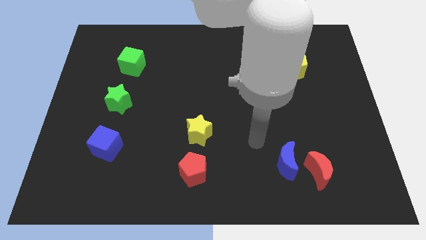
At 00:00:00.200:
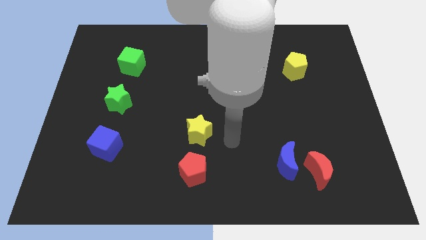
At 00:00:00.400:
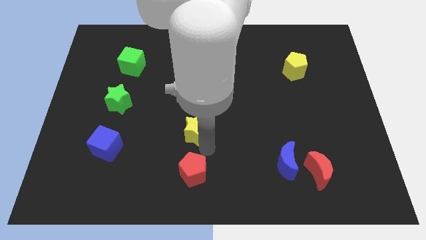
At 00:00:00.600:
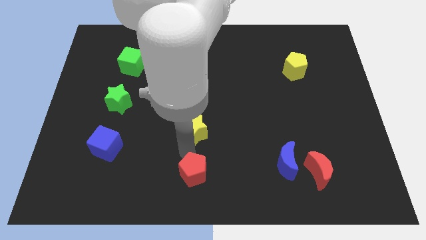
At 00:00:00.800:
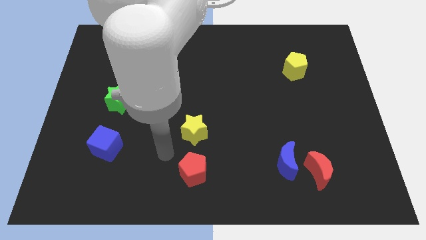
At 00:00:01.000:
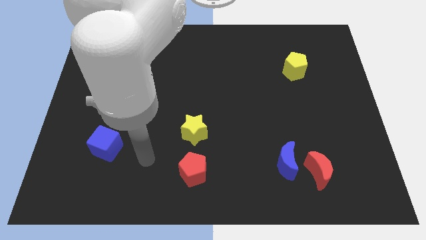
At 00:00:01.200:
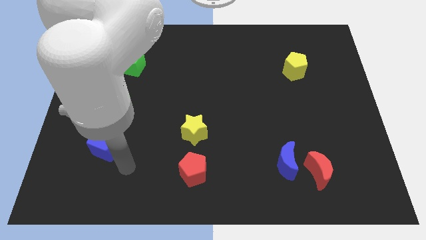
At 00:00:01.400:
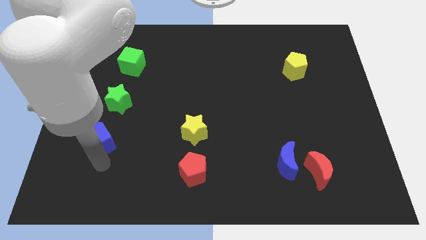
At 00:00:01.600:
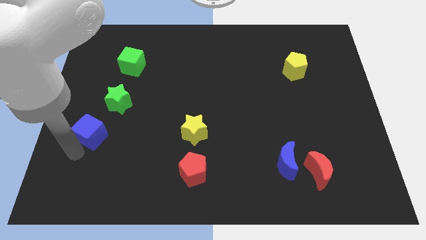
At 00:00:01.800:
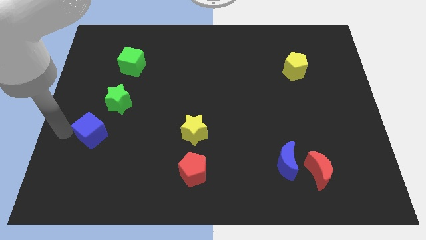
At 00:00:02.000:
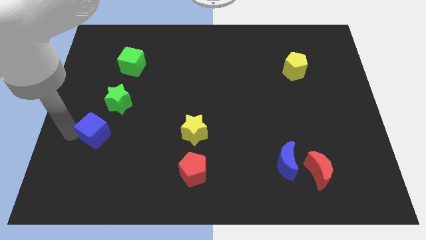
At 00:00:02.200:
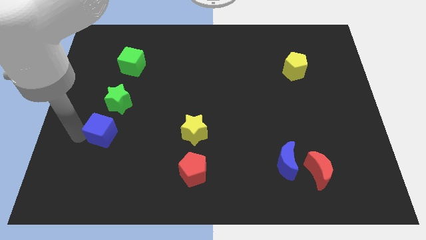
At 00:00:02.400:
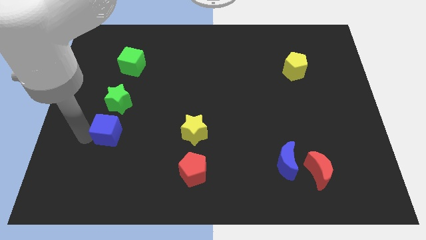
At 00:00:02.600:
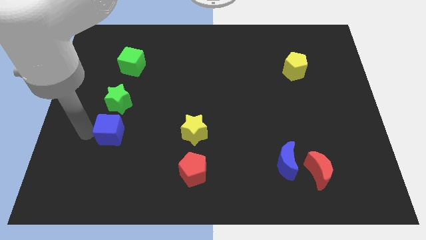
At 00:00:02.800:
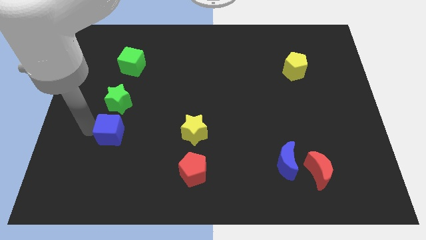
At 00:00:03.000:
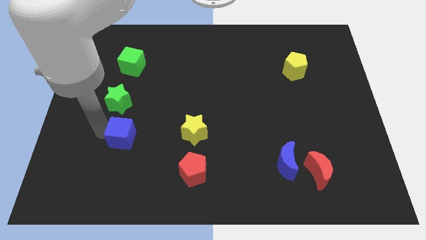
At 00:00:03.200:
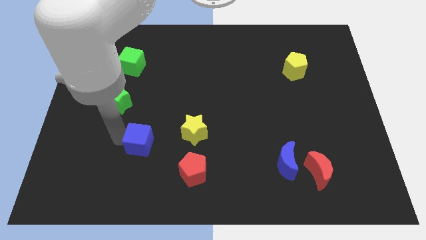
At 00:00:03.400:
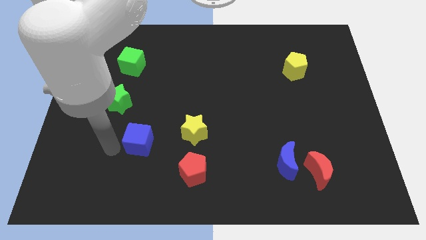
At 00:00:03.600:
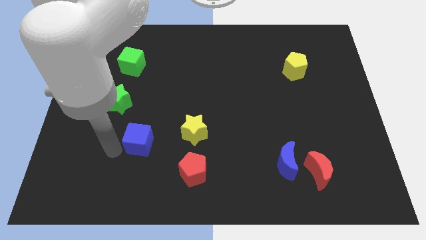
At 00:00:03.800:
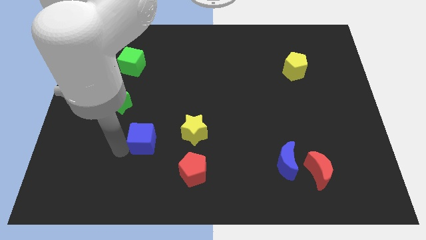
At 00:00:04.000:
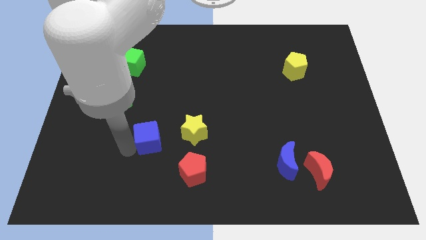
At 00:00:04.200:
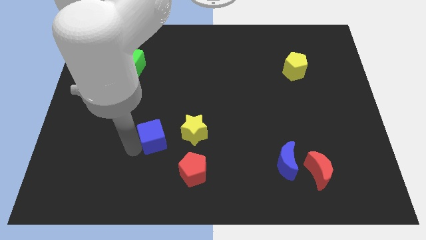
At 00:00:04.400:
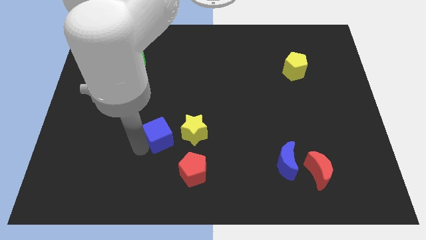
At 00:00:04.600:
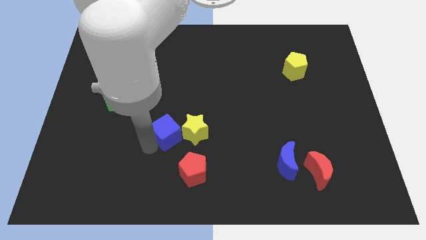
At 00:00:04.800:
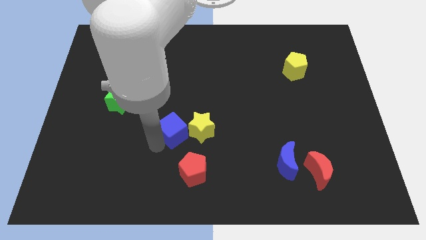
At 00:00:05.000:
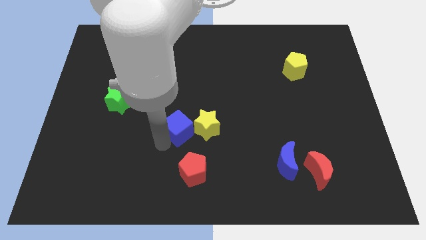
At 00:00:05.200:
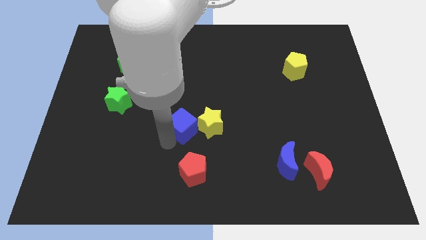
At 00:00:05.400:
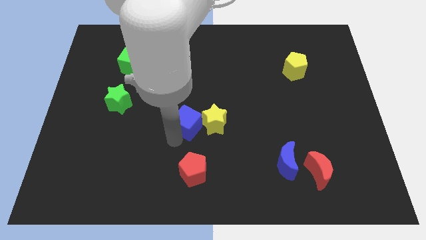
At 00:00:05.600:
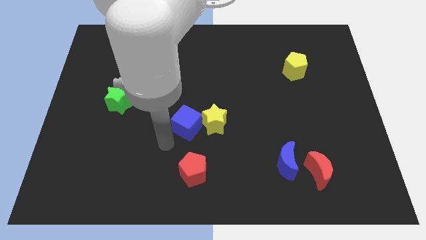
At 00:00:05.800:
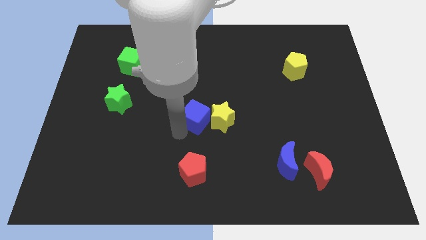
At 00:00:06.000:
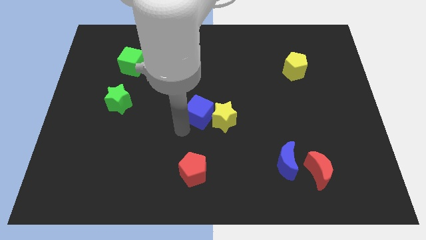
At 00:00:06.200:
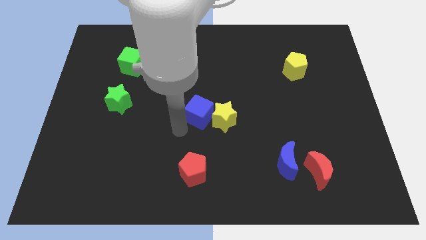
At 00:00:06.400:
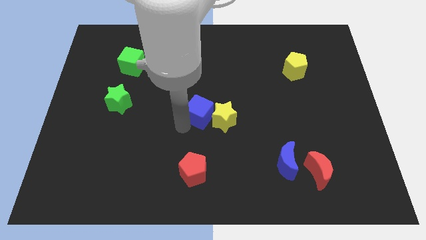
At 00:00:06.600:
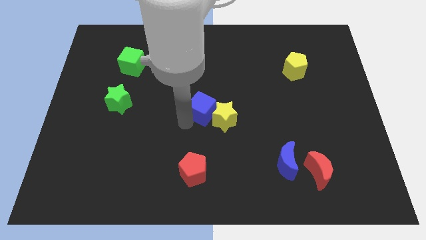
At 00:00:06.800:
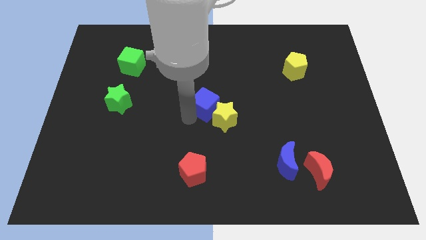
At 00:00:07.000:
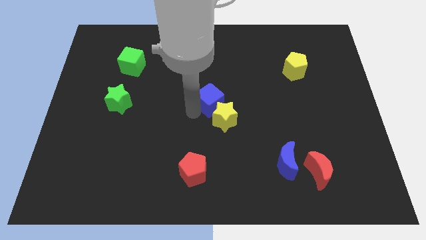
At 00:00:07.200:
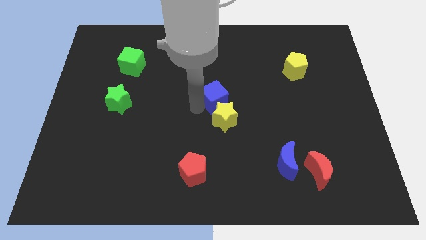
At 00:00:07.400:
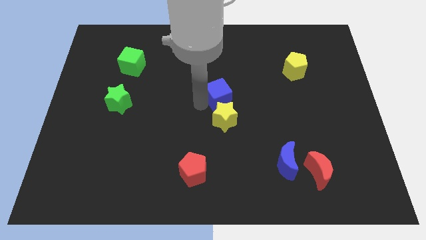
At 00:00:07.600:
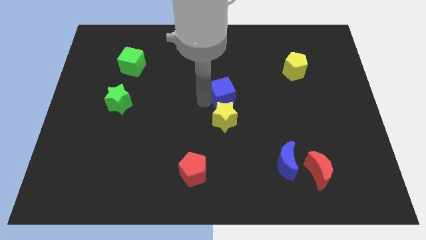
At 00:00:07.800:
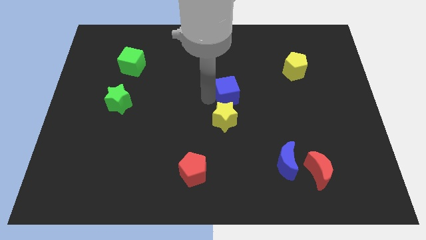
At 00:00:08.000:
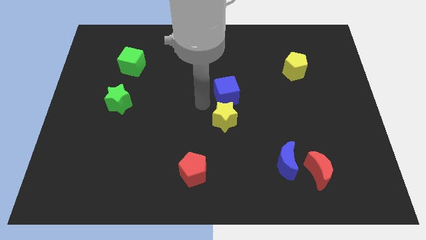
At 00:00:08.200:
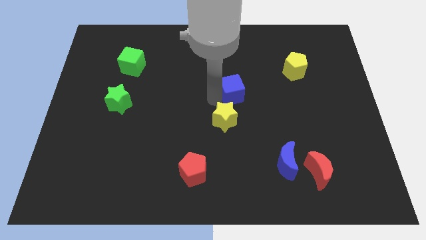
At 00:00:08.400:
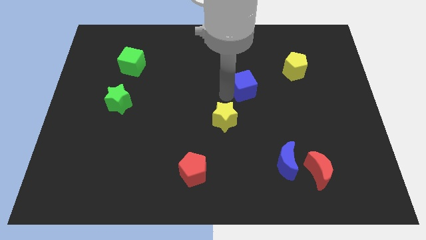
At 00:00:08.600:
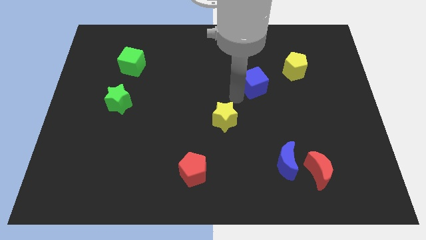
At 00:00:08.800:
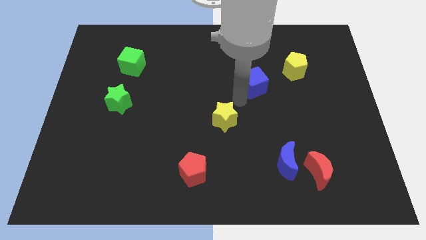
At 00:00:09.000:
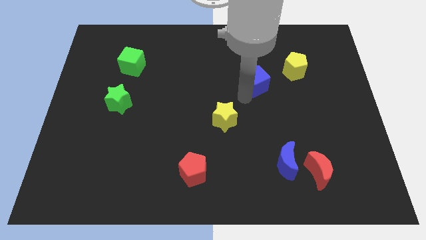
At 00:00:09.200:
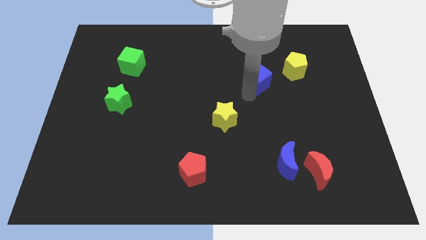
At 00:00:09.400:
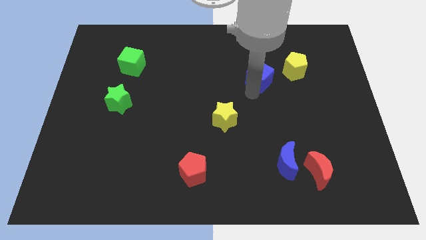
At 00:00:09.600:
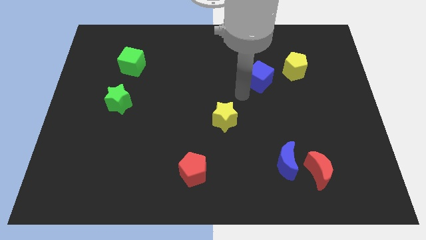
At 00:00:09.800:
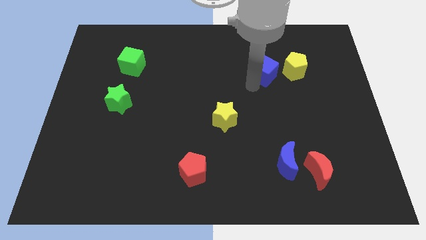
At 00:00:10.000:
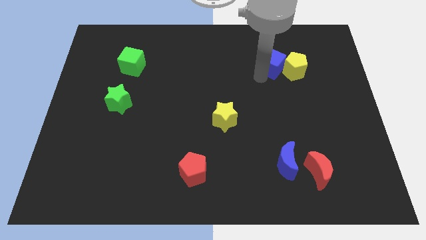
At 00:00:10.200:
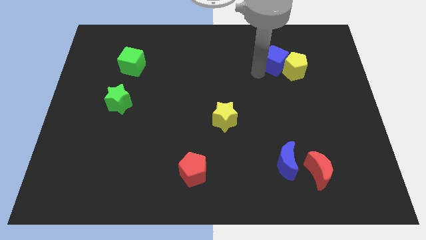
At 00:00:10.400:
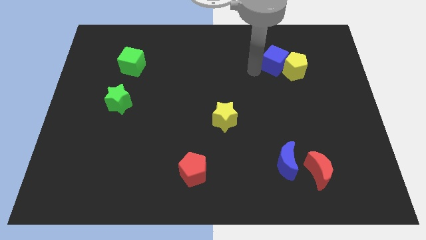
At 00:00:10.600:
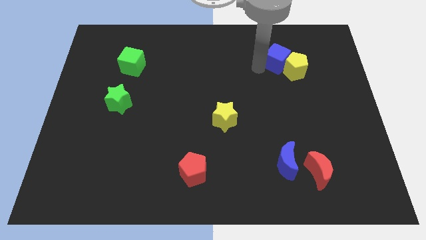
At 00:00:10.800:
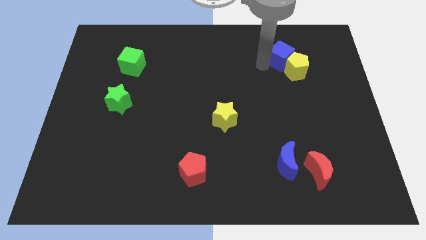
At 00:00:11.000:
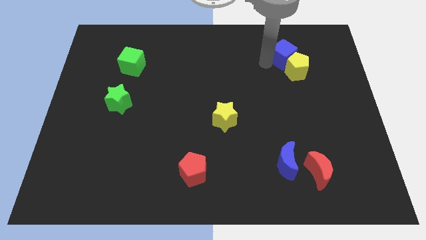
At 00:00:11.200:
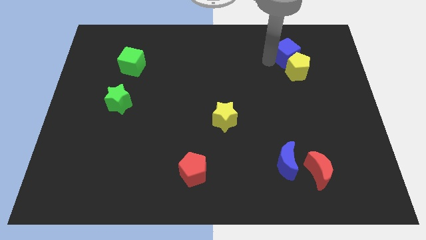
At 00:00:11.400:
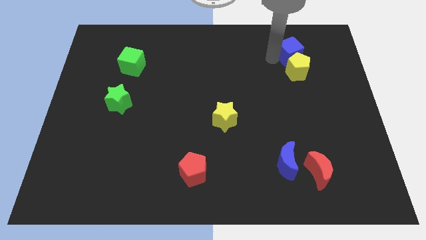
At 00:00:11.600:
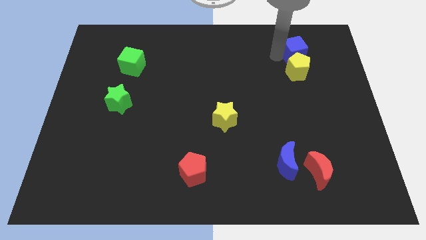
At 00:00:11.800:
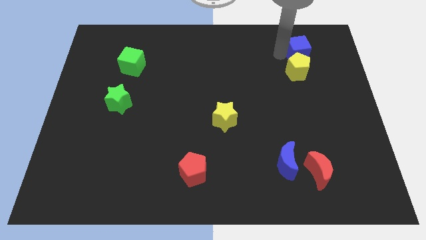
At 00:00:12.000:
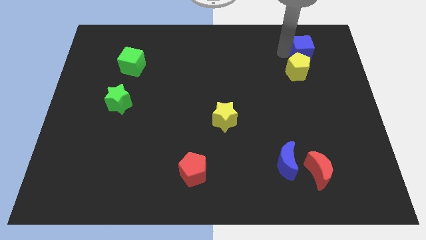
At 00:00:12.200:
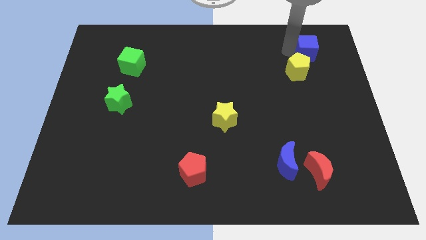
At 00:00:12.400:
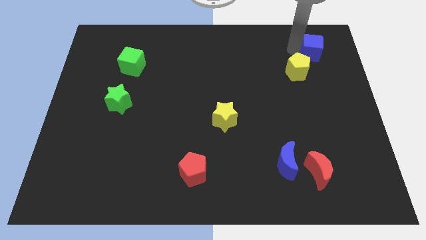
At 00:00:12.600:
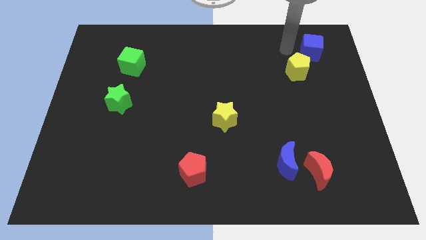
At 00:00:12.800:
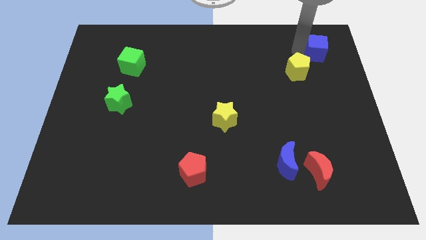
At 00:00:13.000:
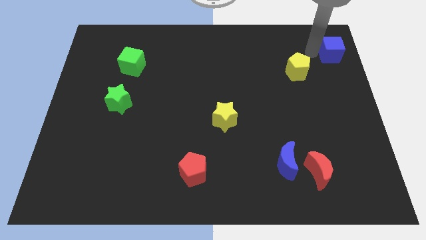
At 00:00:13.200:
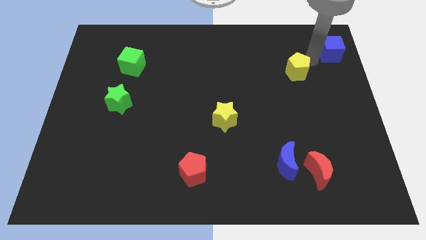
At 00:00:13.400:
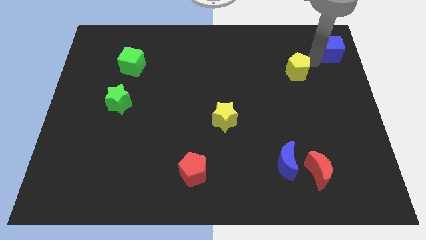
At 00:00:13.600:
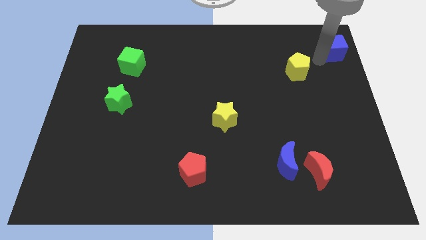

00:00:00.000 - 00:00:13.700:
put the blue cube to the top right
